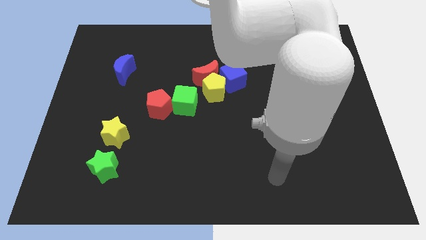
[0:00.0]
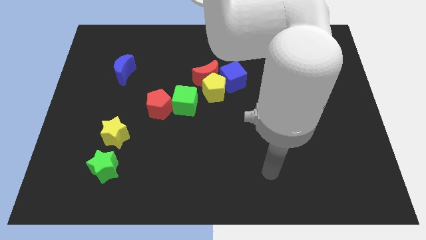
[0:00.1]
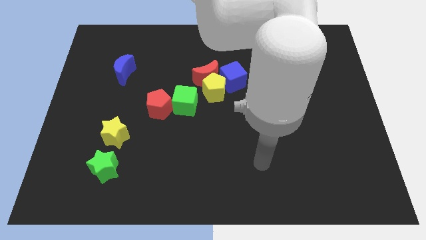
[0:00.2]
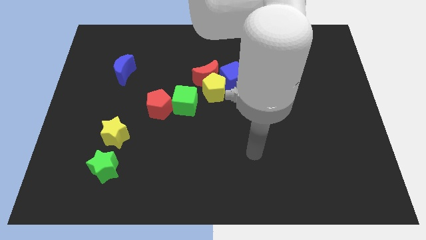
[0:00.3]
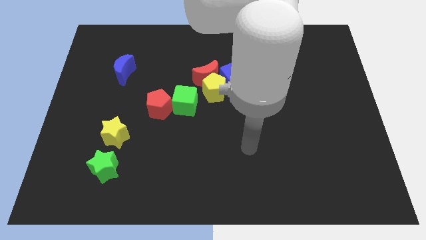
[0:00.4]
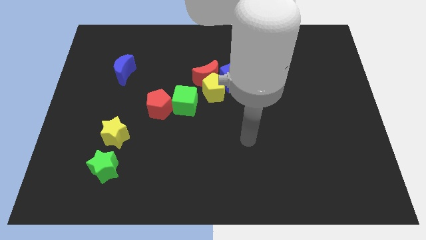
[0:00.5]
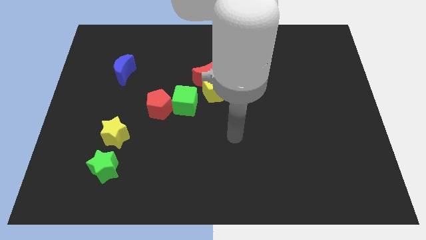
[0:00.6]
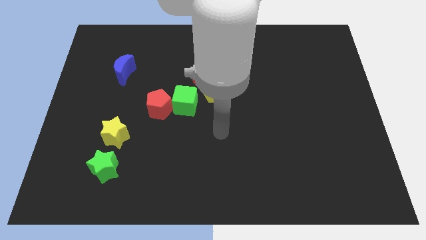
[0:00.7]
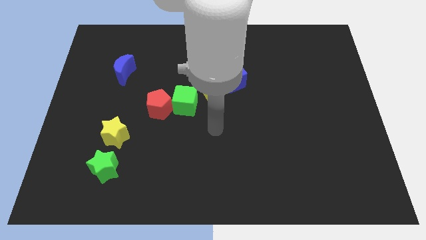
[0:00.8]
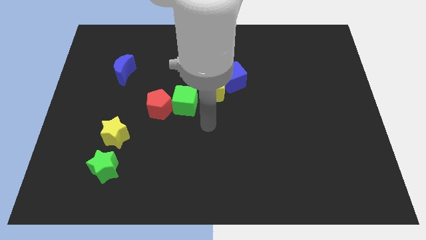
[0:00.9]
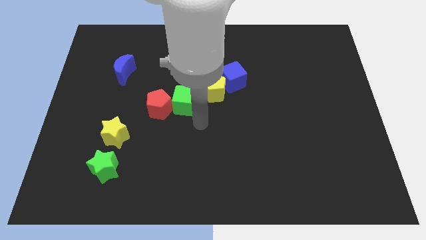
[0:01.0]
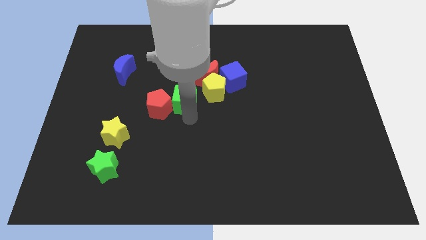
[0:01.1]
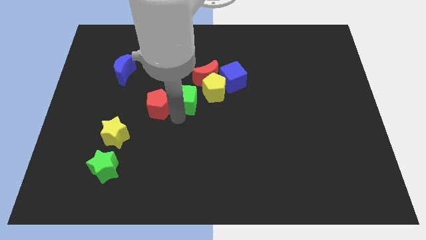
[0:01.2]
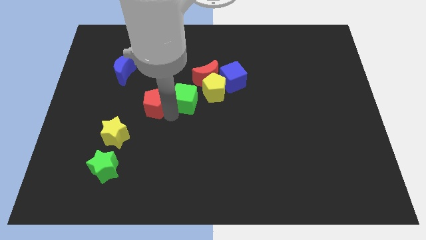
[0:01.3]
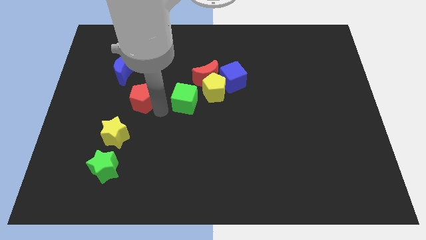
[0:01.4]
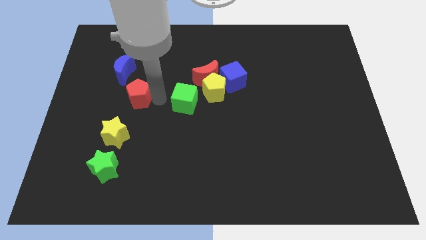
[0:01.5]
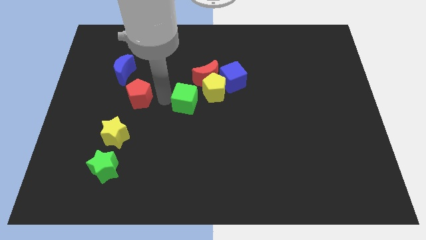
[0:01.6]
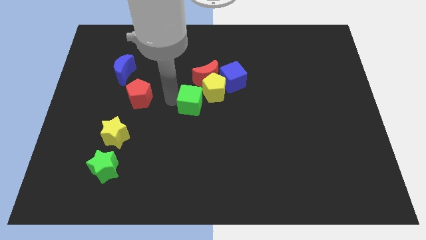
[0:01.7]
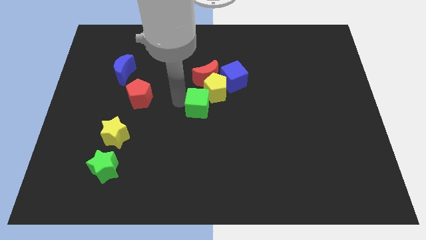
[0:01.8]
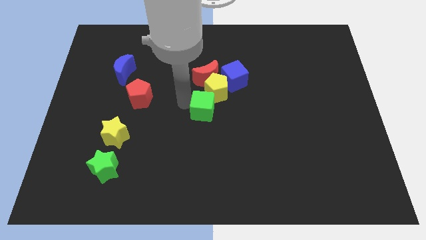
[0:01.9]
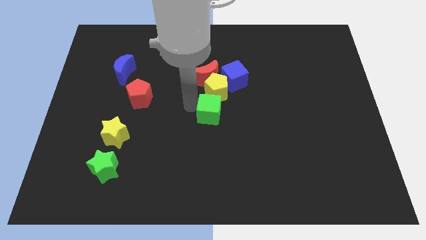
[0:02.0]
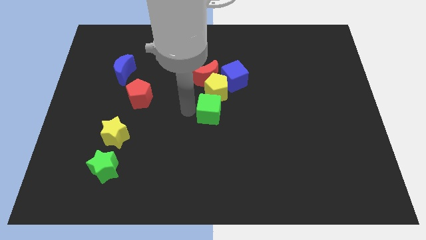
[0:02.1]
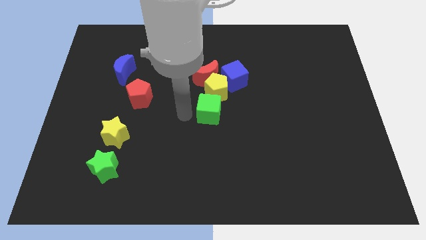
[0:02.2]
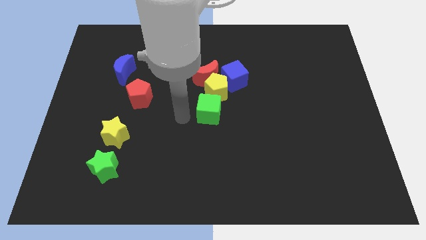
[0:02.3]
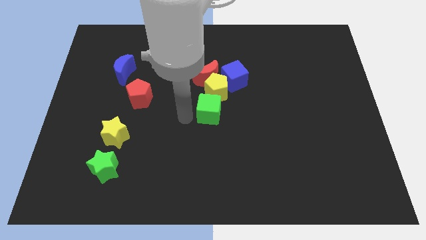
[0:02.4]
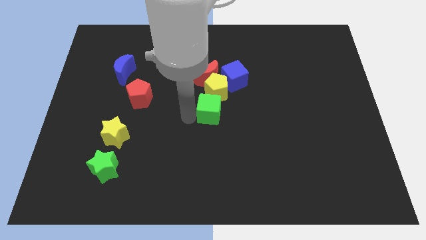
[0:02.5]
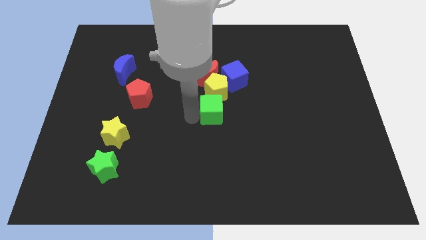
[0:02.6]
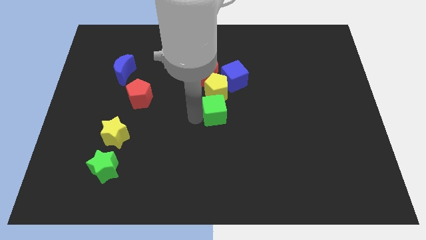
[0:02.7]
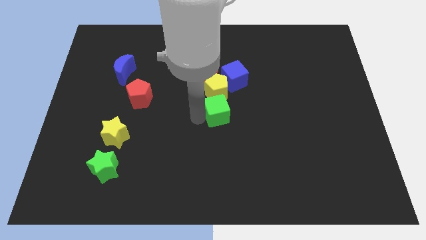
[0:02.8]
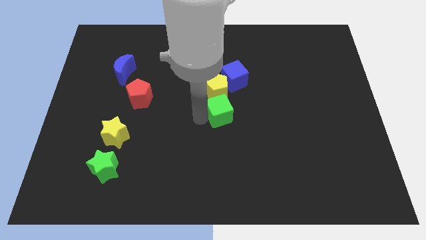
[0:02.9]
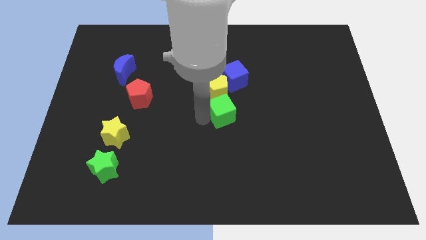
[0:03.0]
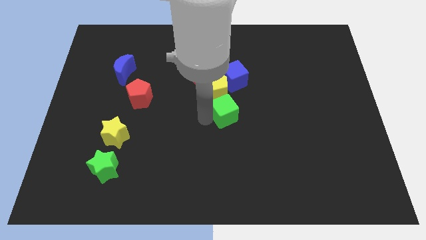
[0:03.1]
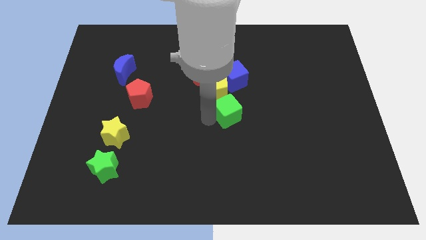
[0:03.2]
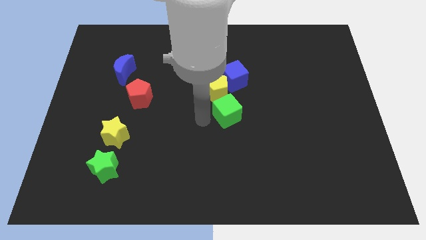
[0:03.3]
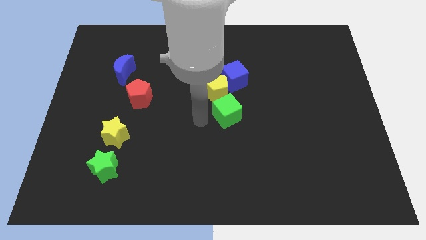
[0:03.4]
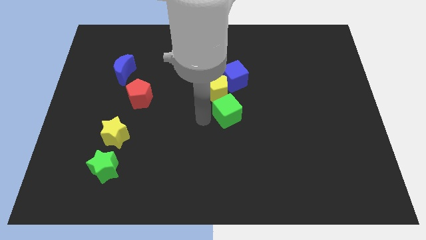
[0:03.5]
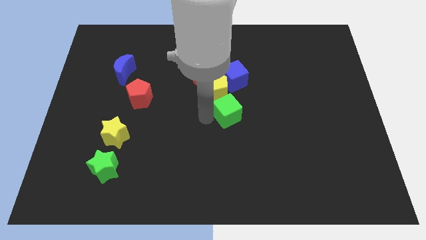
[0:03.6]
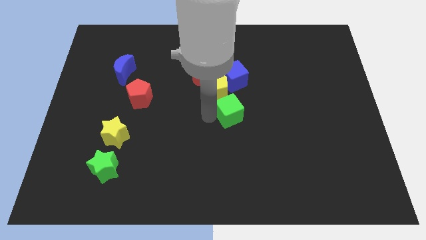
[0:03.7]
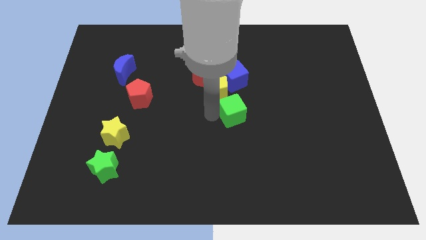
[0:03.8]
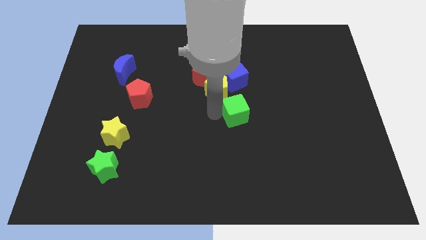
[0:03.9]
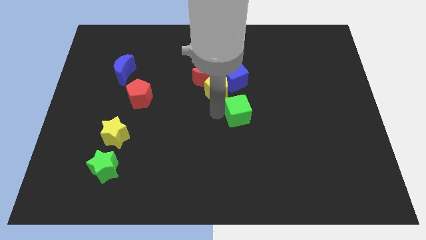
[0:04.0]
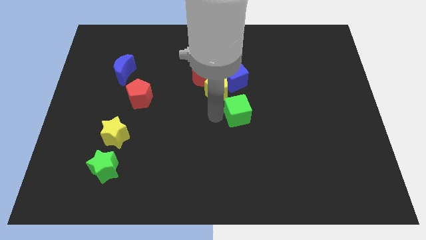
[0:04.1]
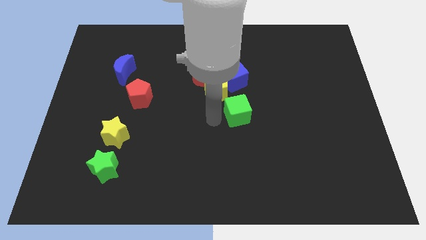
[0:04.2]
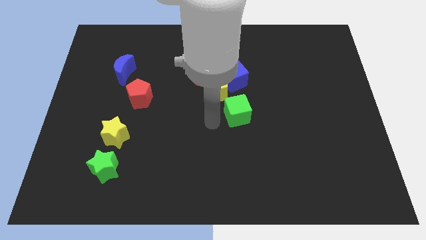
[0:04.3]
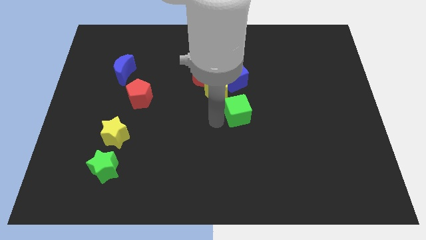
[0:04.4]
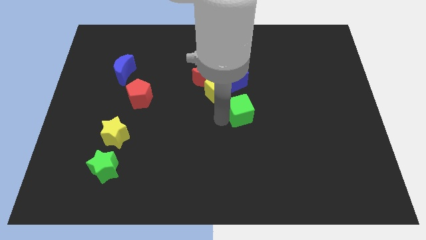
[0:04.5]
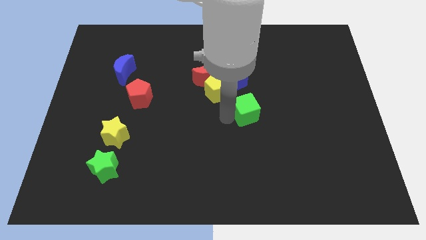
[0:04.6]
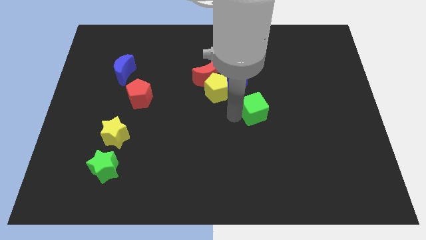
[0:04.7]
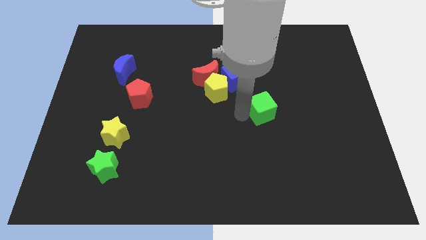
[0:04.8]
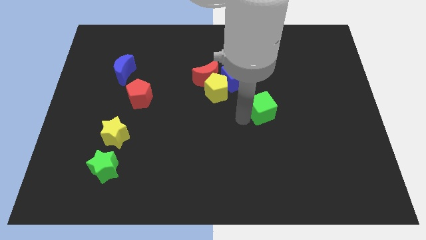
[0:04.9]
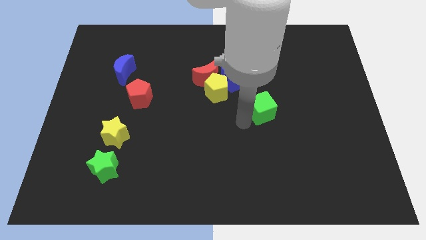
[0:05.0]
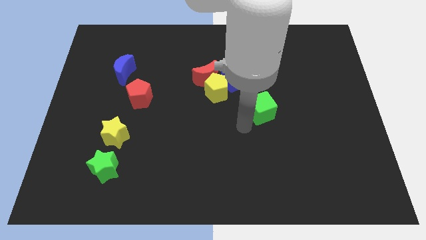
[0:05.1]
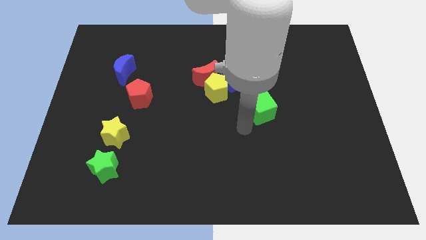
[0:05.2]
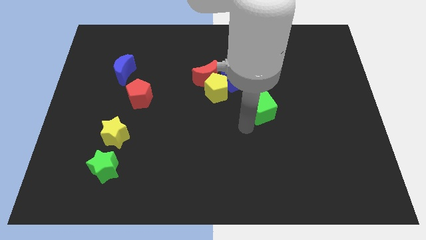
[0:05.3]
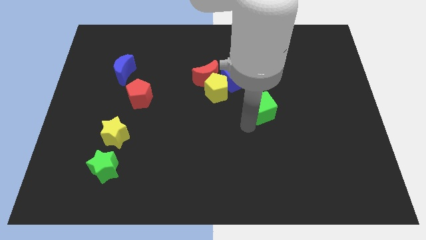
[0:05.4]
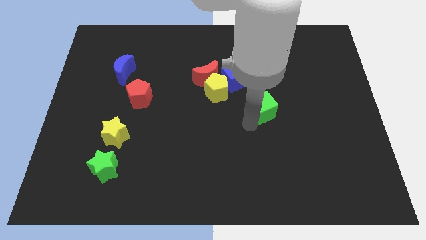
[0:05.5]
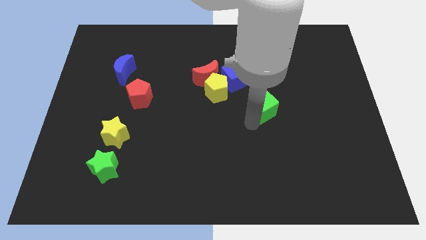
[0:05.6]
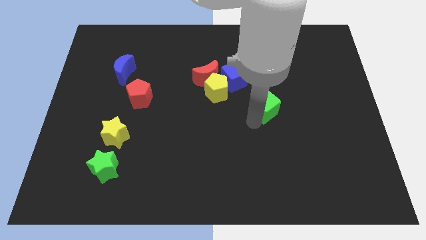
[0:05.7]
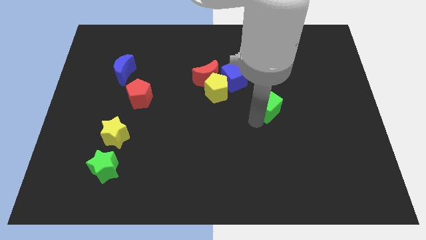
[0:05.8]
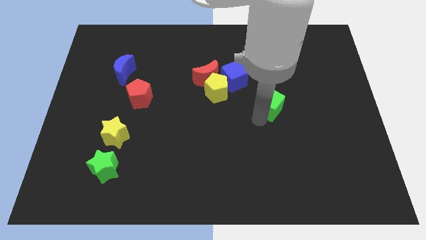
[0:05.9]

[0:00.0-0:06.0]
slide the green cube to the right

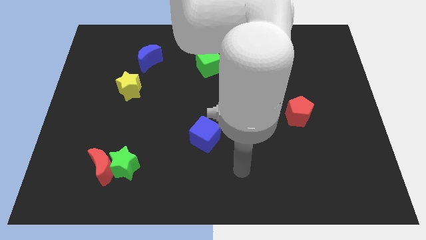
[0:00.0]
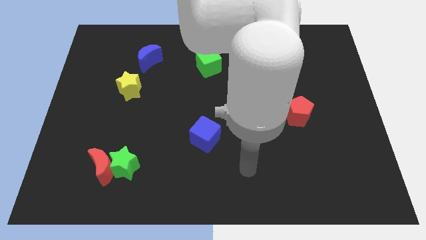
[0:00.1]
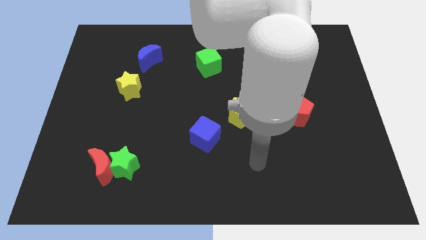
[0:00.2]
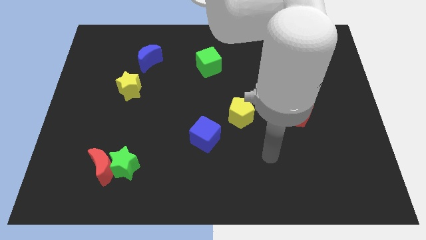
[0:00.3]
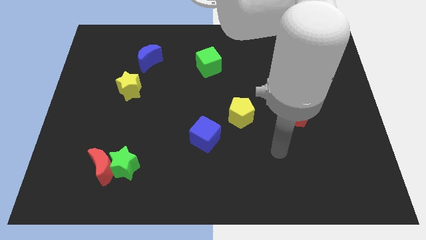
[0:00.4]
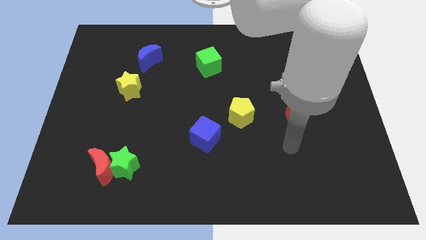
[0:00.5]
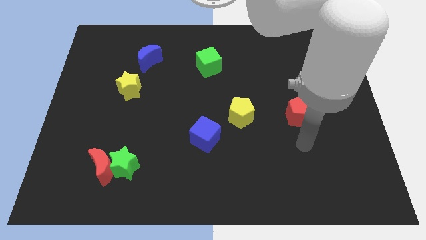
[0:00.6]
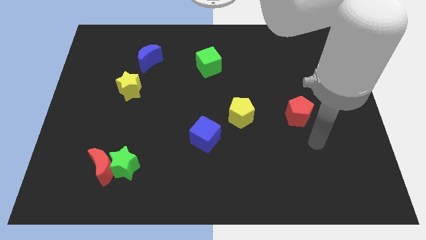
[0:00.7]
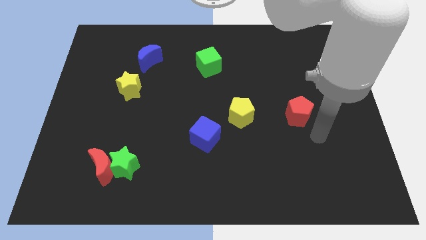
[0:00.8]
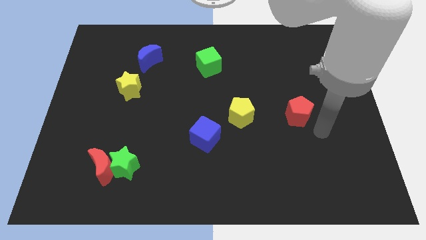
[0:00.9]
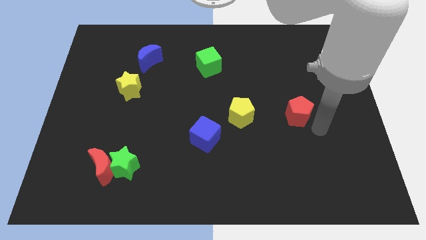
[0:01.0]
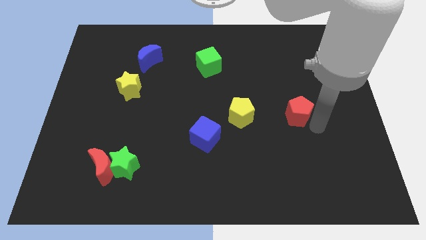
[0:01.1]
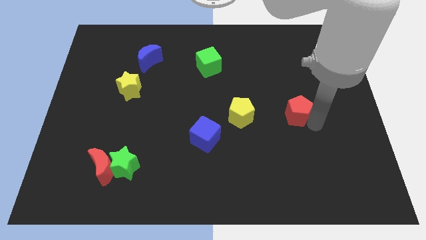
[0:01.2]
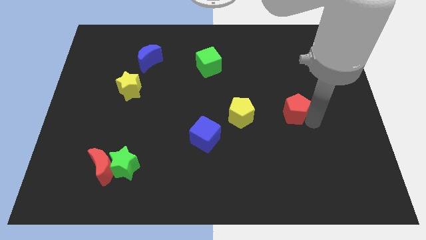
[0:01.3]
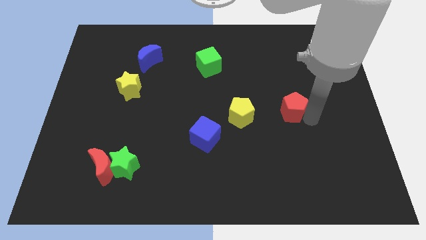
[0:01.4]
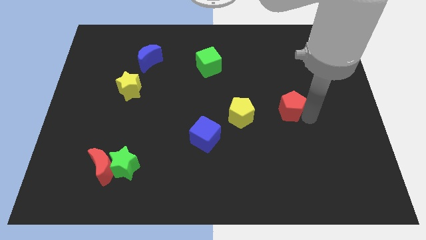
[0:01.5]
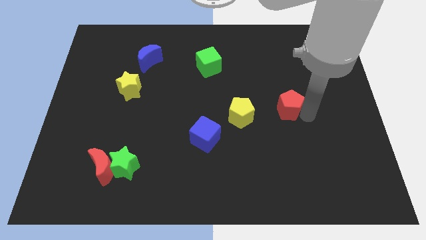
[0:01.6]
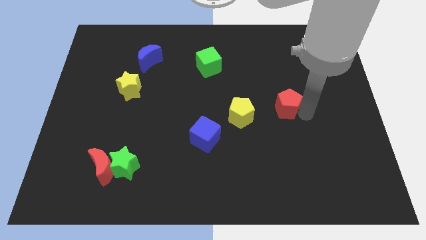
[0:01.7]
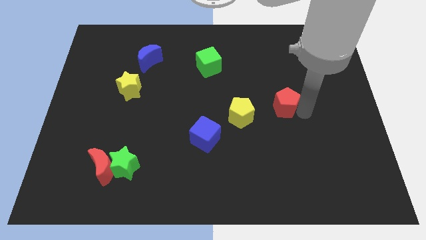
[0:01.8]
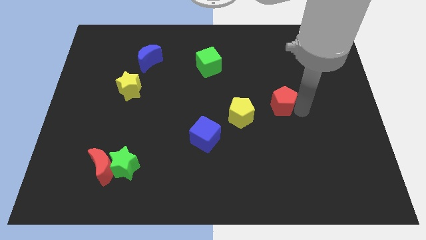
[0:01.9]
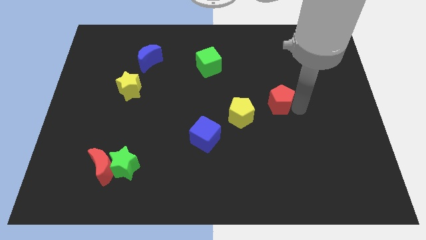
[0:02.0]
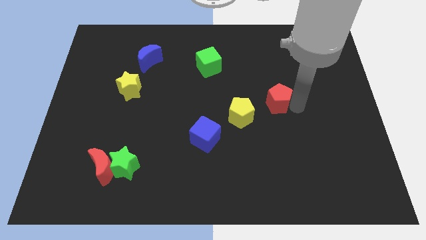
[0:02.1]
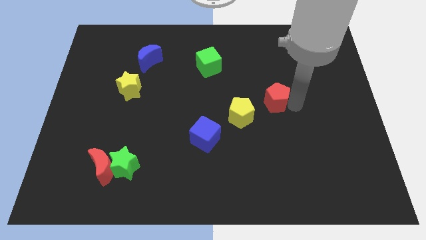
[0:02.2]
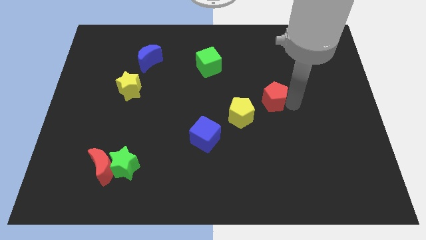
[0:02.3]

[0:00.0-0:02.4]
slide the red pentagon a little bit up and left
